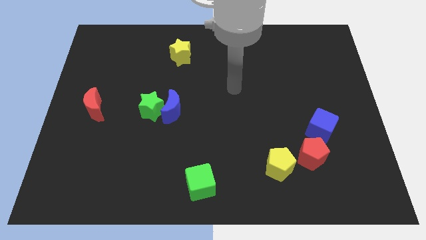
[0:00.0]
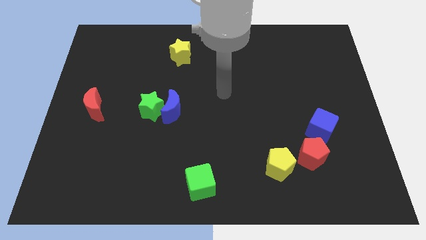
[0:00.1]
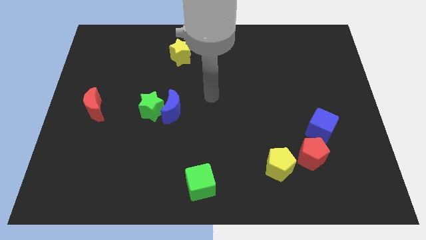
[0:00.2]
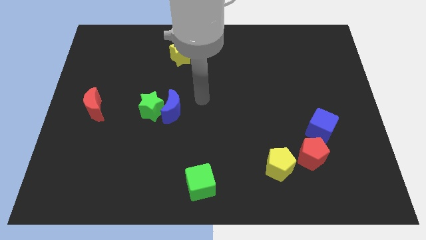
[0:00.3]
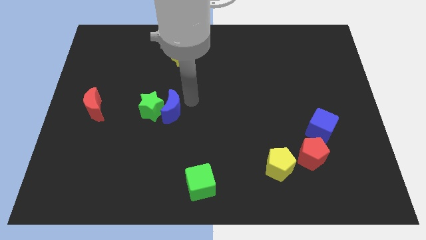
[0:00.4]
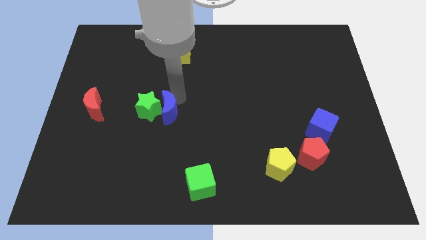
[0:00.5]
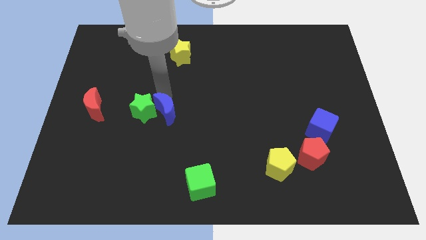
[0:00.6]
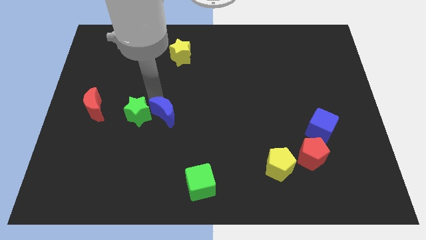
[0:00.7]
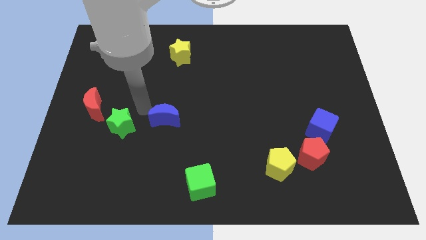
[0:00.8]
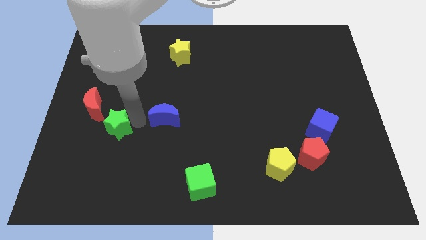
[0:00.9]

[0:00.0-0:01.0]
separate the blue moon from the green star

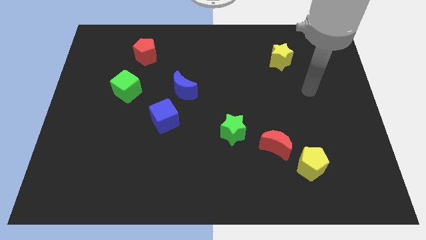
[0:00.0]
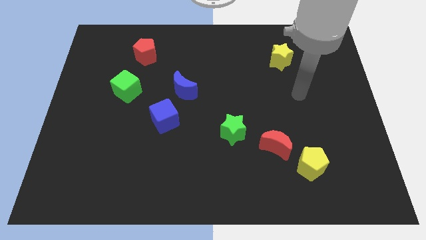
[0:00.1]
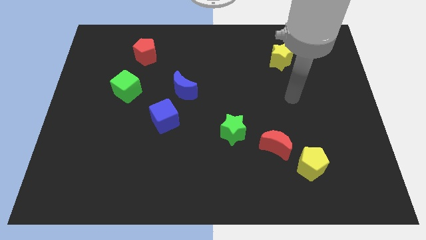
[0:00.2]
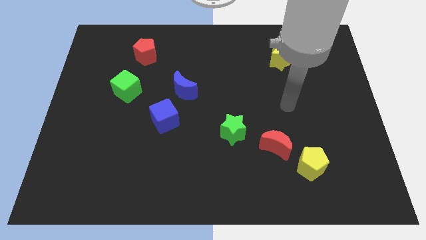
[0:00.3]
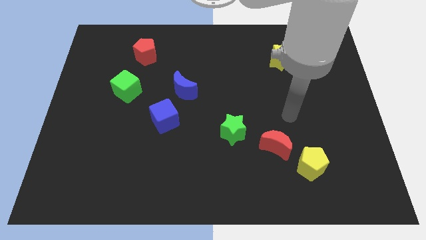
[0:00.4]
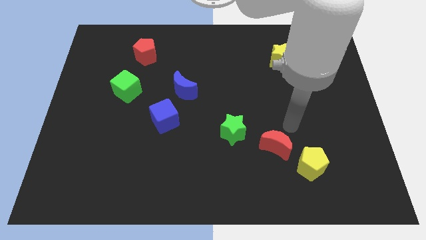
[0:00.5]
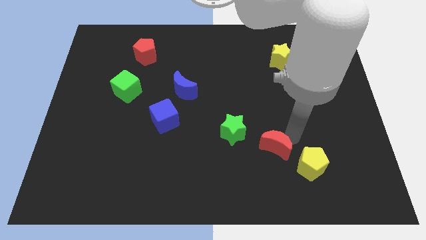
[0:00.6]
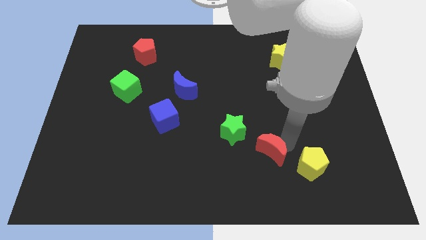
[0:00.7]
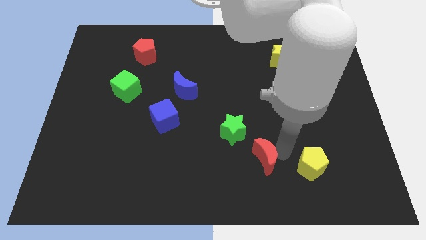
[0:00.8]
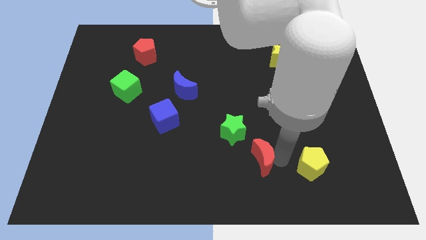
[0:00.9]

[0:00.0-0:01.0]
move the yellow pentagon away from the red moon

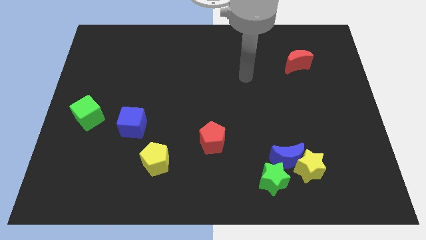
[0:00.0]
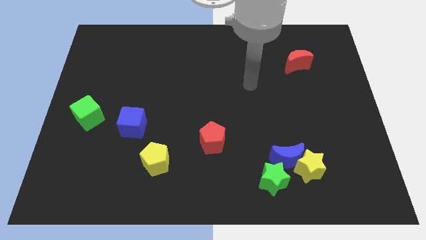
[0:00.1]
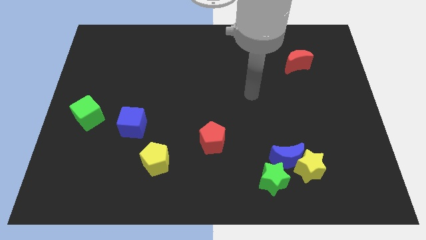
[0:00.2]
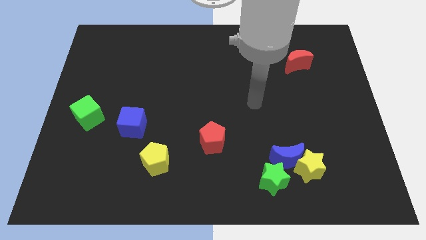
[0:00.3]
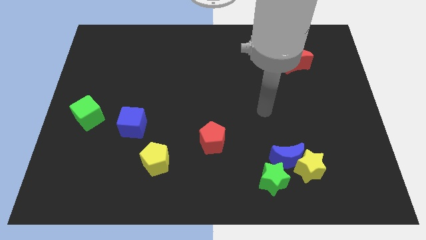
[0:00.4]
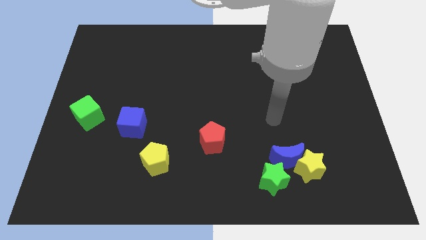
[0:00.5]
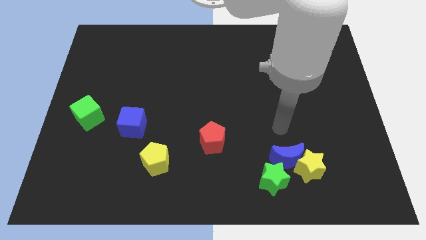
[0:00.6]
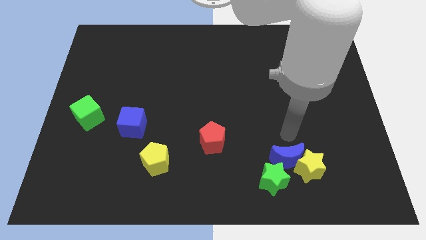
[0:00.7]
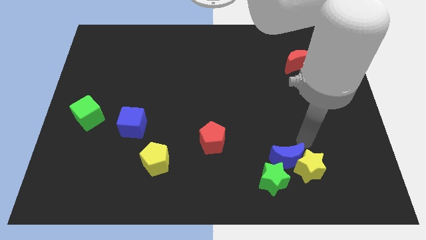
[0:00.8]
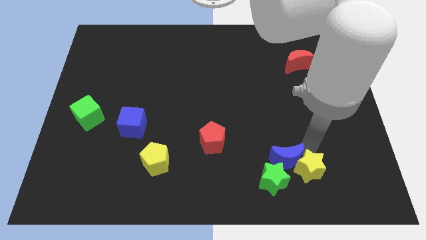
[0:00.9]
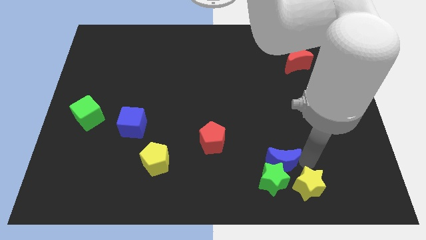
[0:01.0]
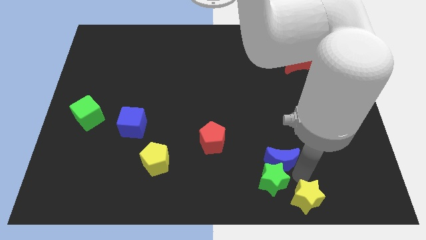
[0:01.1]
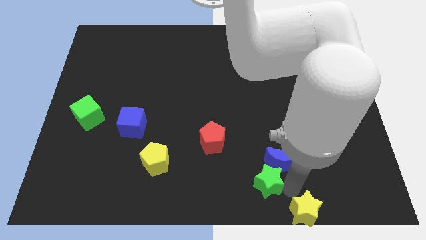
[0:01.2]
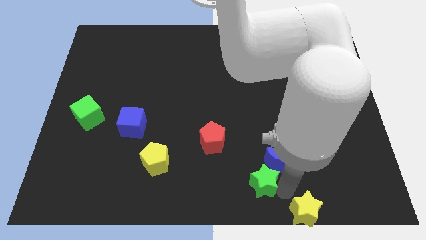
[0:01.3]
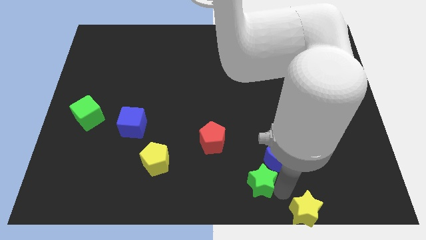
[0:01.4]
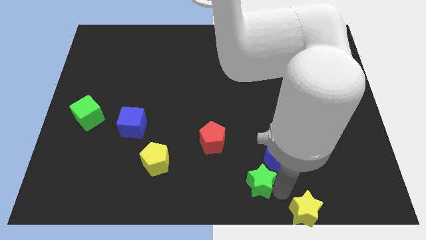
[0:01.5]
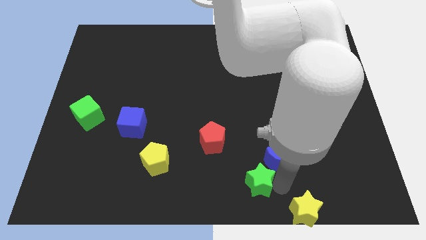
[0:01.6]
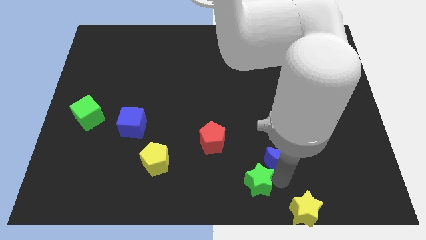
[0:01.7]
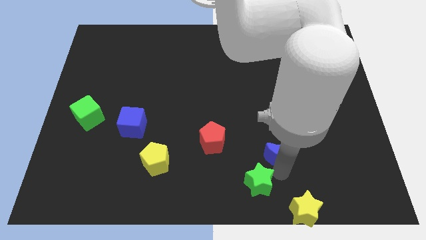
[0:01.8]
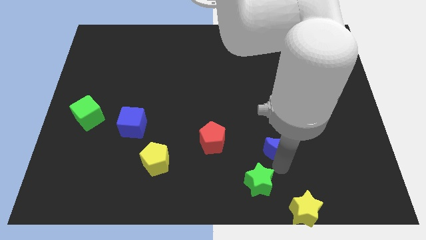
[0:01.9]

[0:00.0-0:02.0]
pull the blue moon apart from the yellow star and green star

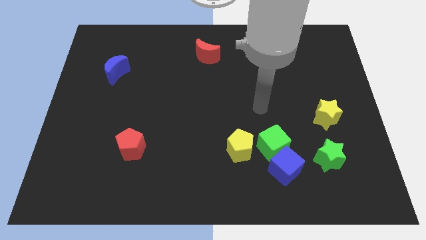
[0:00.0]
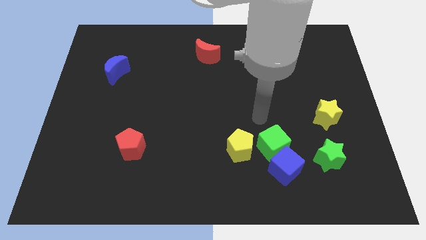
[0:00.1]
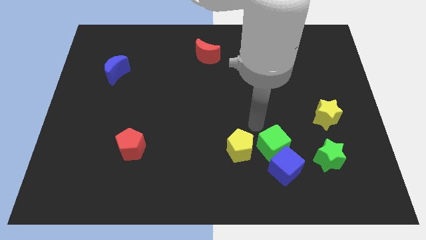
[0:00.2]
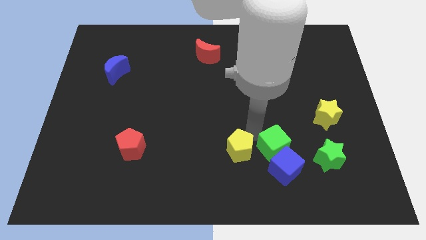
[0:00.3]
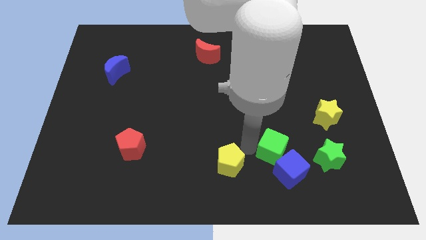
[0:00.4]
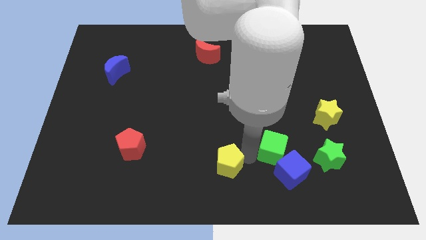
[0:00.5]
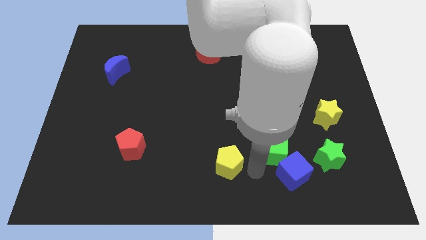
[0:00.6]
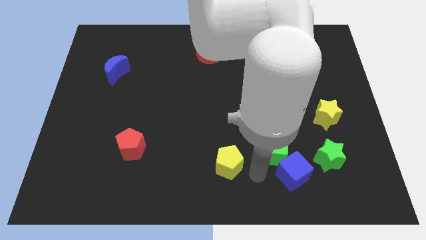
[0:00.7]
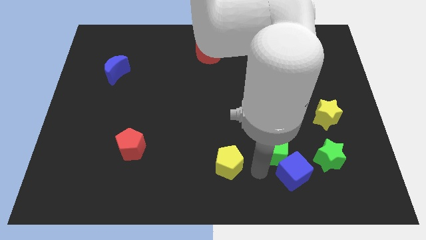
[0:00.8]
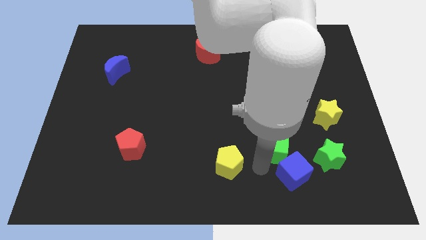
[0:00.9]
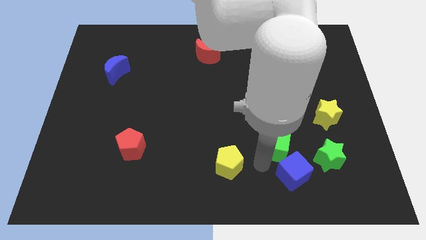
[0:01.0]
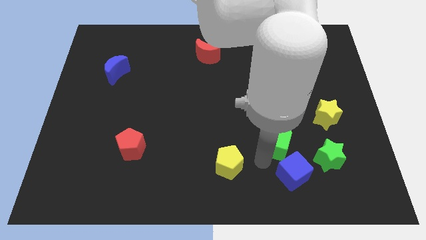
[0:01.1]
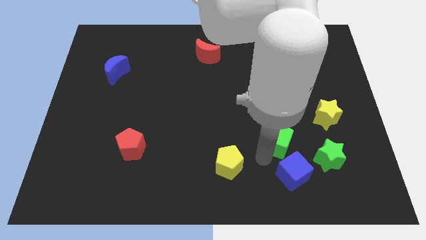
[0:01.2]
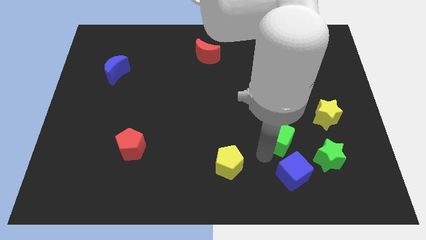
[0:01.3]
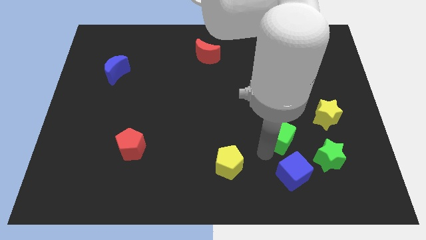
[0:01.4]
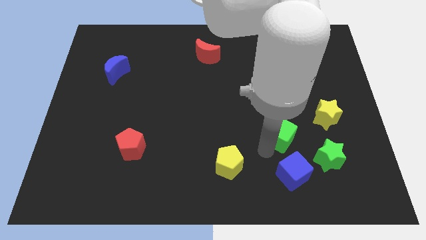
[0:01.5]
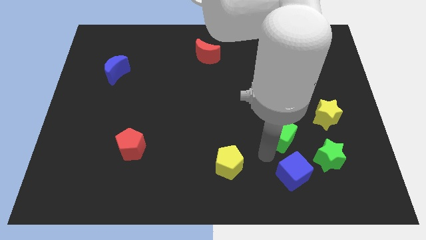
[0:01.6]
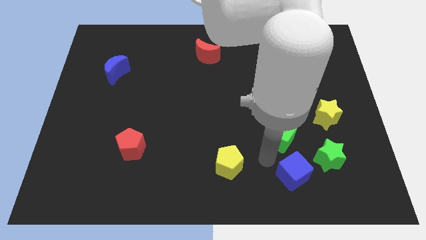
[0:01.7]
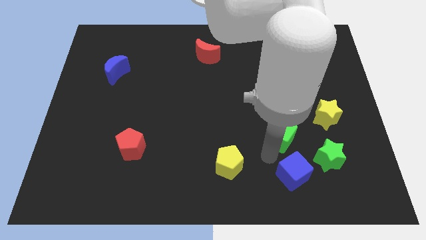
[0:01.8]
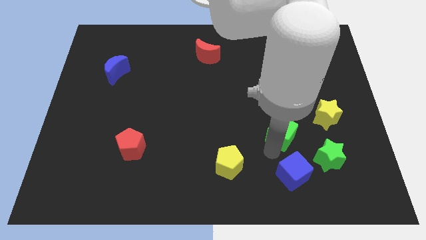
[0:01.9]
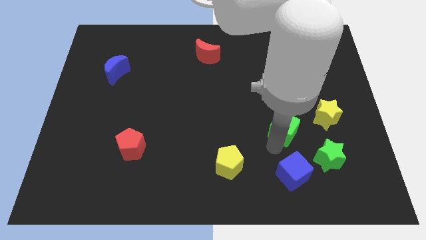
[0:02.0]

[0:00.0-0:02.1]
separate the green cube from the blue cube and yellow pentagon

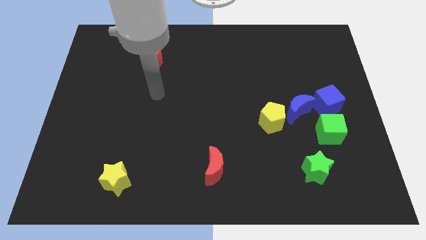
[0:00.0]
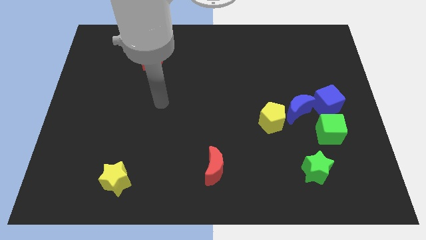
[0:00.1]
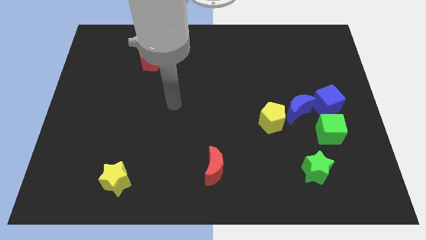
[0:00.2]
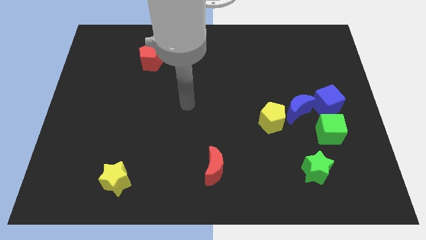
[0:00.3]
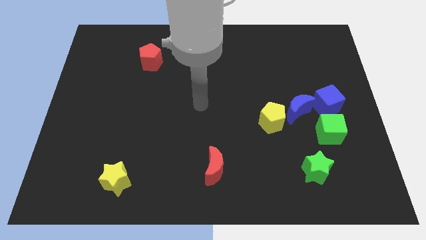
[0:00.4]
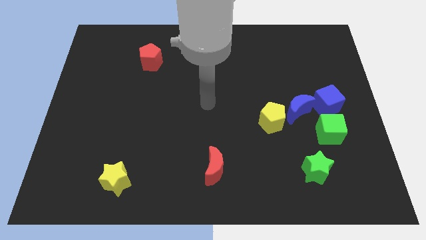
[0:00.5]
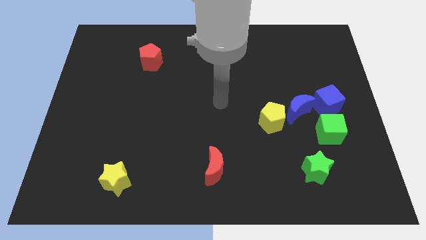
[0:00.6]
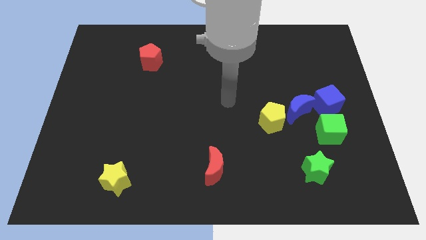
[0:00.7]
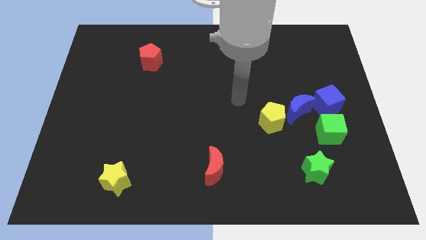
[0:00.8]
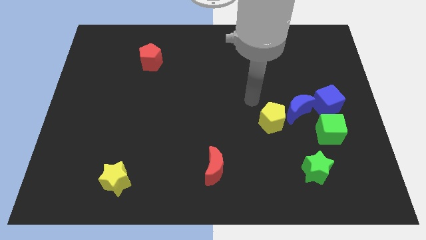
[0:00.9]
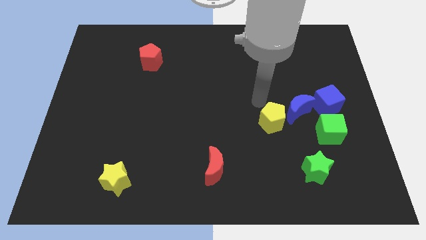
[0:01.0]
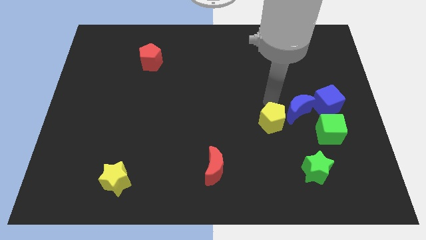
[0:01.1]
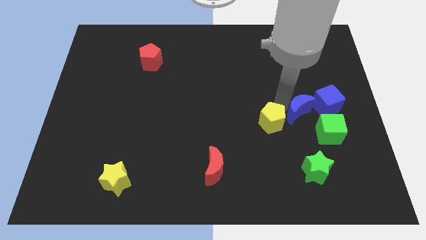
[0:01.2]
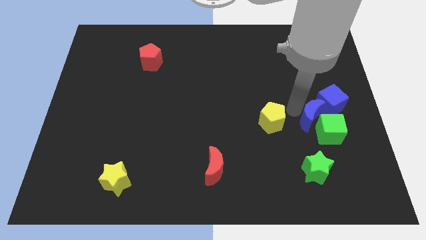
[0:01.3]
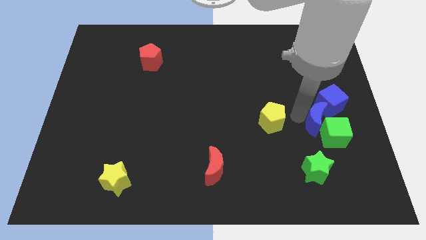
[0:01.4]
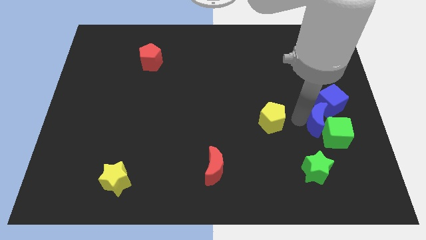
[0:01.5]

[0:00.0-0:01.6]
pull the yellow pentagon apart from the blue moon

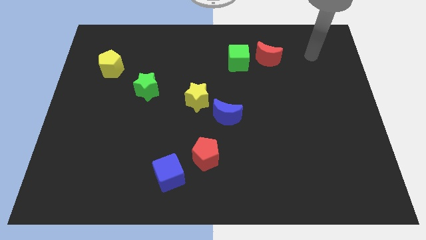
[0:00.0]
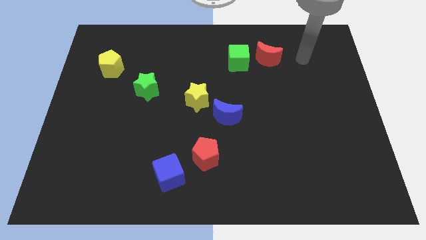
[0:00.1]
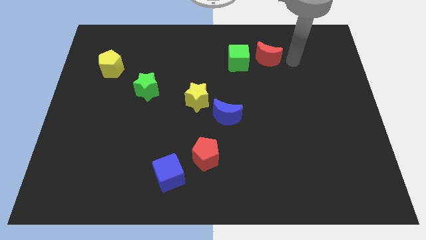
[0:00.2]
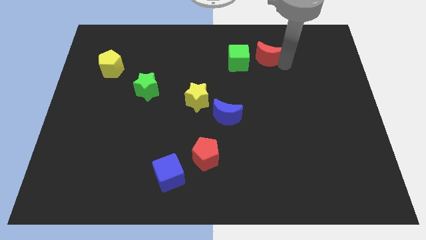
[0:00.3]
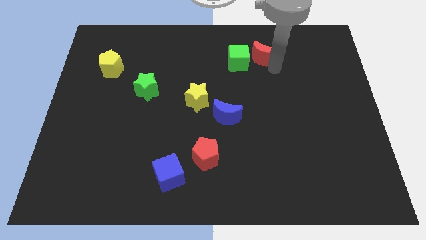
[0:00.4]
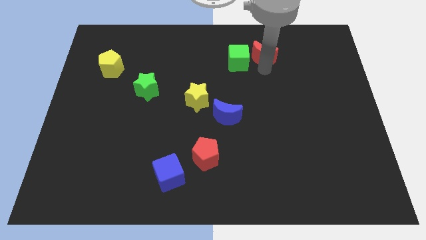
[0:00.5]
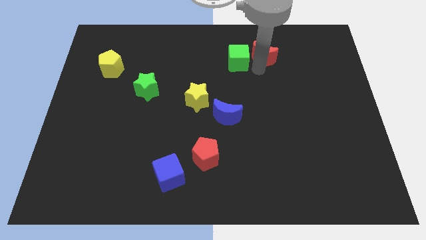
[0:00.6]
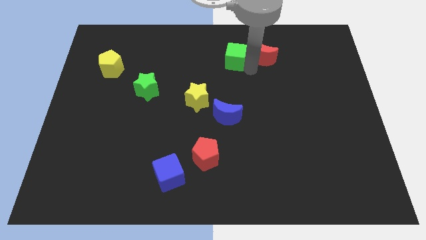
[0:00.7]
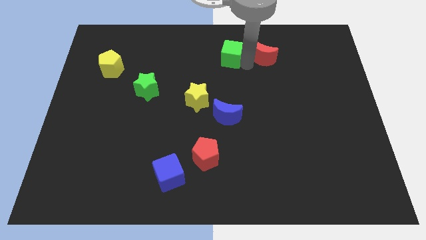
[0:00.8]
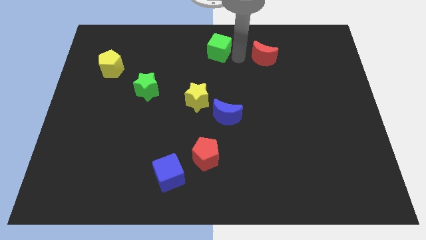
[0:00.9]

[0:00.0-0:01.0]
move the red moon away from the green cube

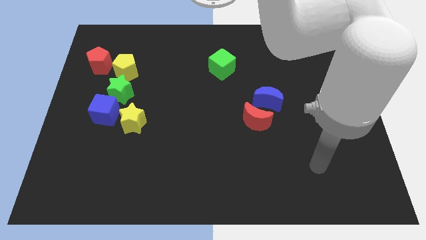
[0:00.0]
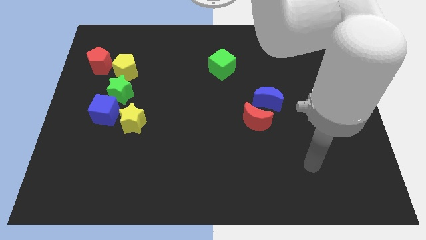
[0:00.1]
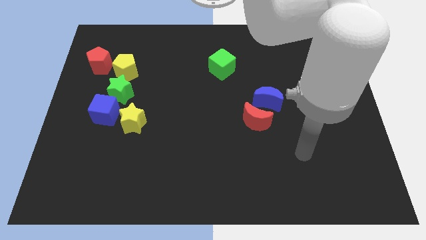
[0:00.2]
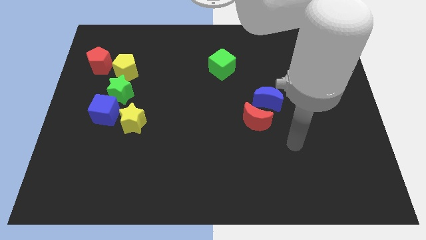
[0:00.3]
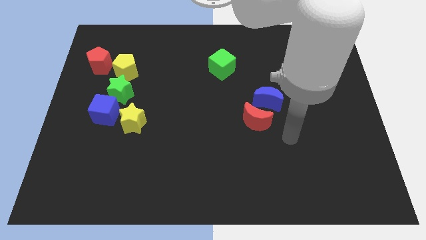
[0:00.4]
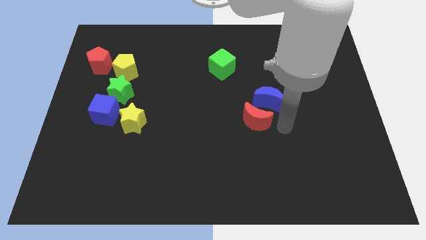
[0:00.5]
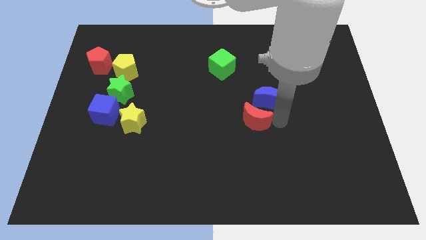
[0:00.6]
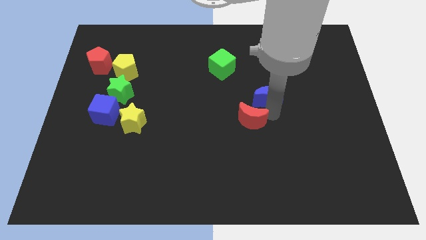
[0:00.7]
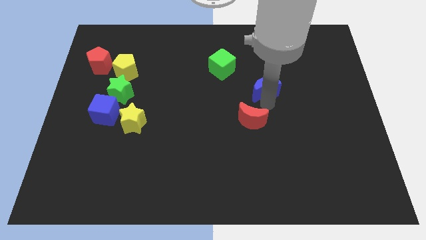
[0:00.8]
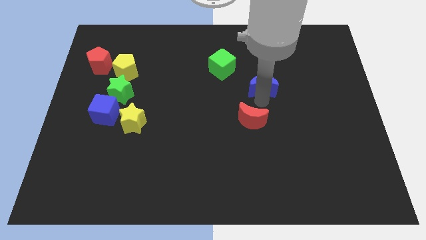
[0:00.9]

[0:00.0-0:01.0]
move the red moon away from the blue moon
